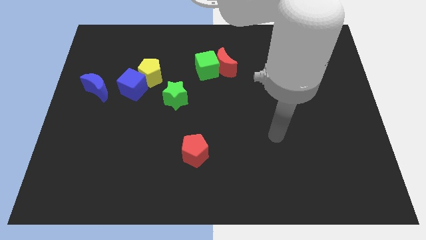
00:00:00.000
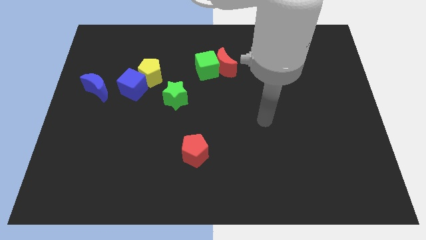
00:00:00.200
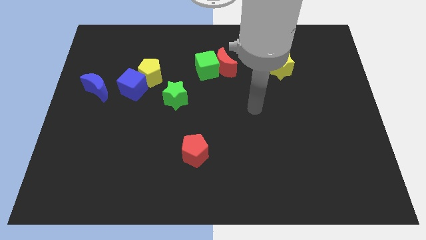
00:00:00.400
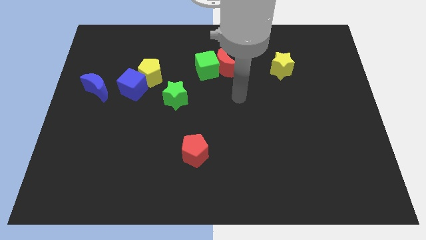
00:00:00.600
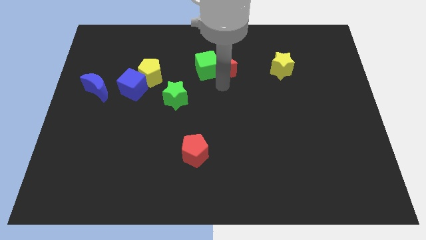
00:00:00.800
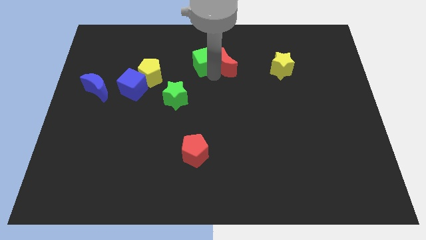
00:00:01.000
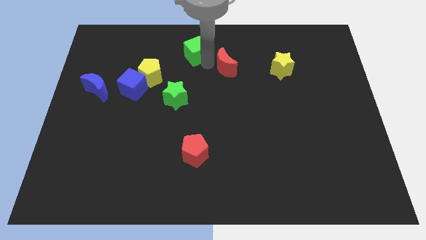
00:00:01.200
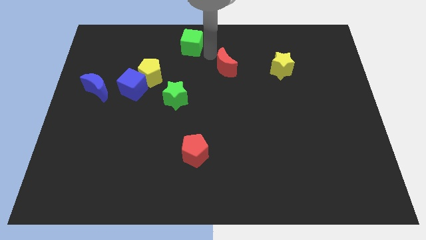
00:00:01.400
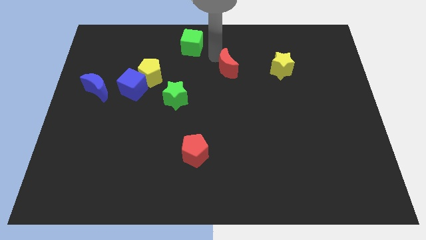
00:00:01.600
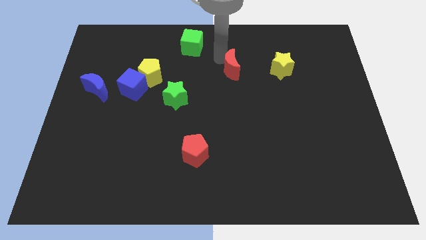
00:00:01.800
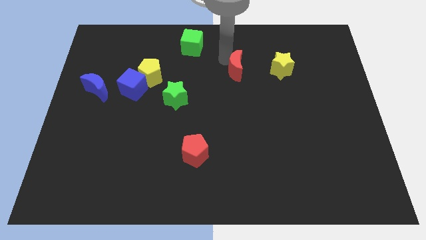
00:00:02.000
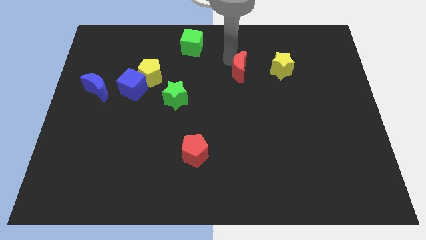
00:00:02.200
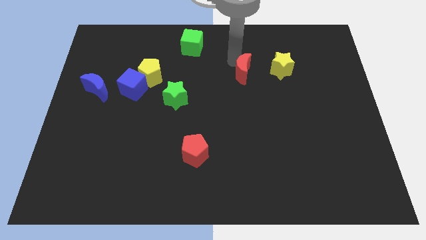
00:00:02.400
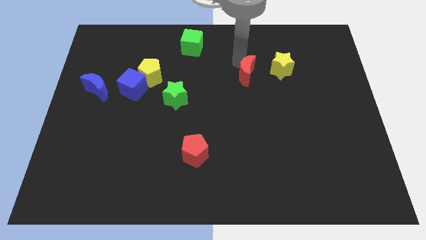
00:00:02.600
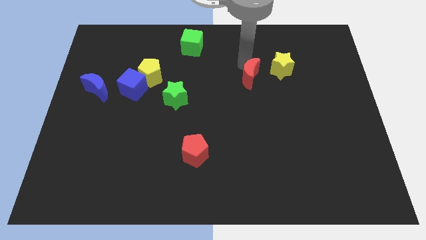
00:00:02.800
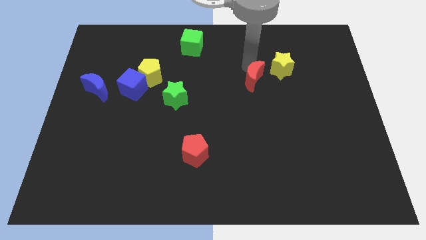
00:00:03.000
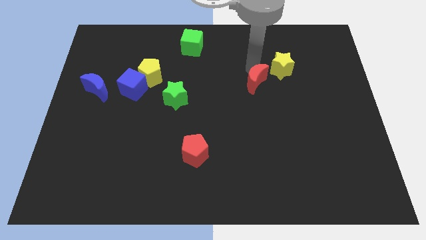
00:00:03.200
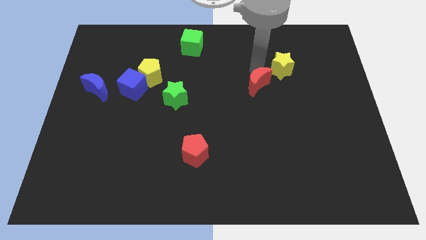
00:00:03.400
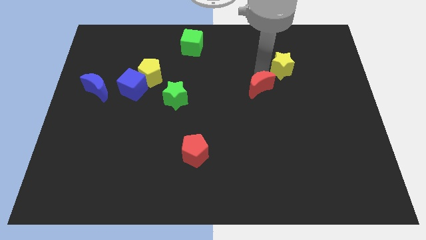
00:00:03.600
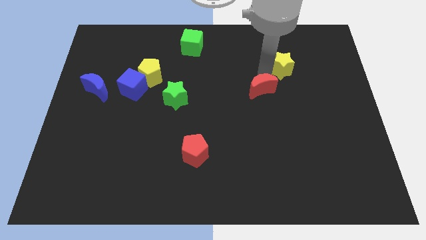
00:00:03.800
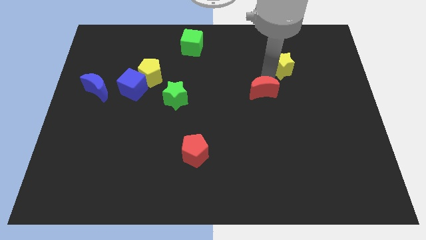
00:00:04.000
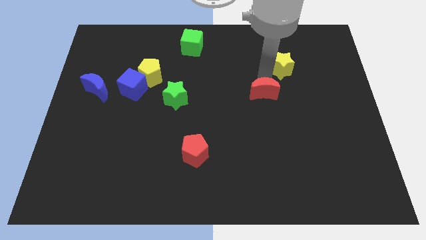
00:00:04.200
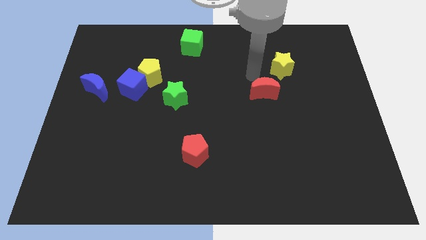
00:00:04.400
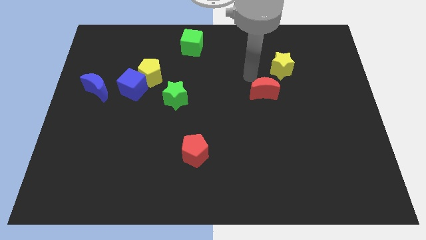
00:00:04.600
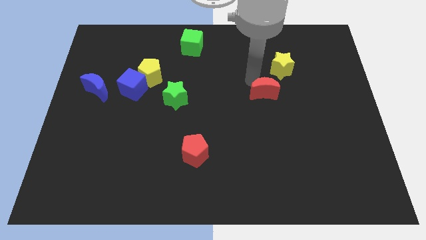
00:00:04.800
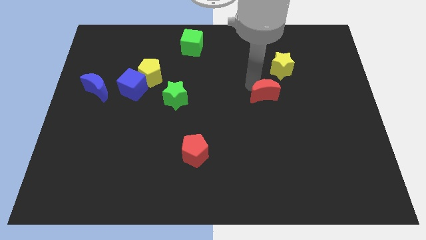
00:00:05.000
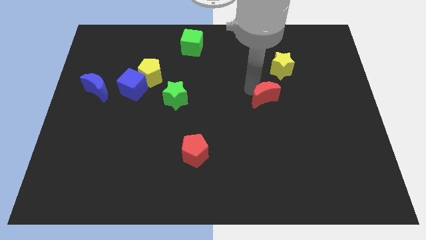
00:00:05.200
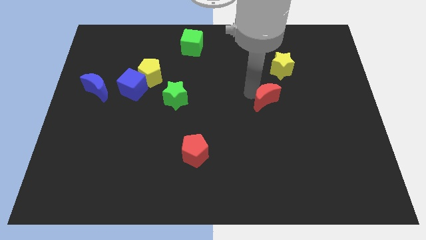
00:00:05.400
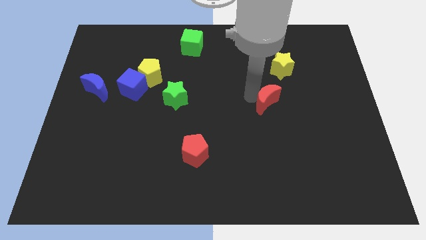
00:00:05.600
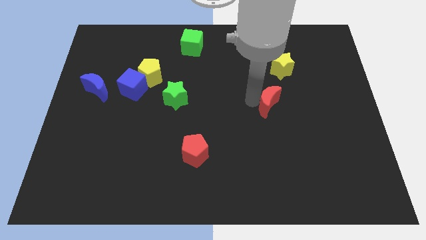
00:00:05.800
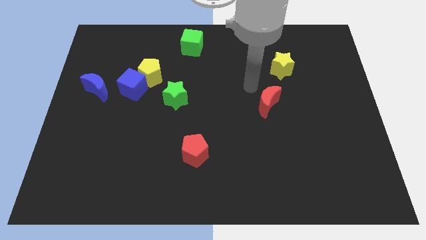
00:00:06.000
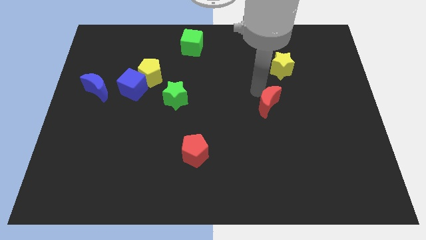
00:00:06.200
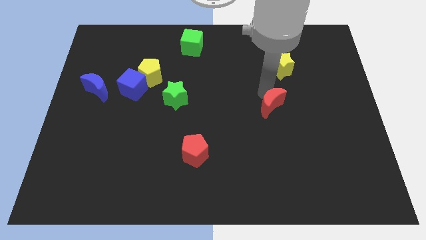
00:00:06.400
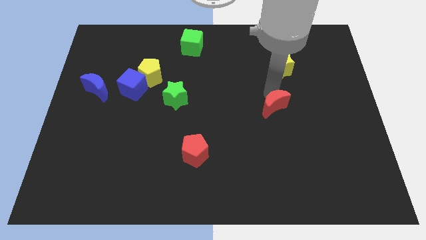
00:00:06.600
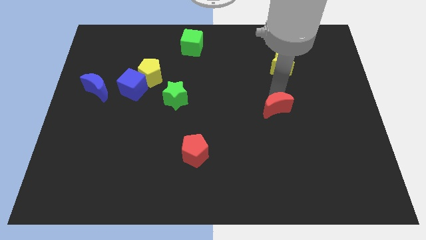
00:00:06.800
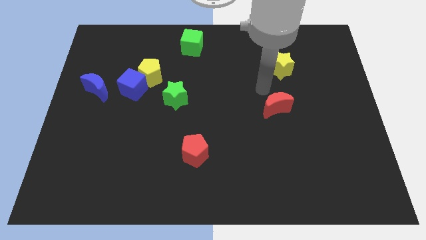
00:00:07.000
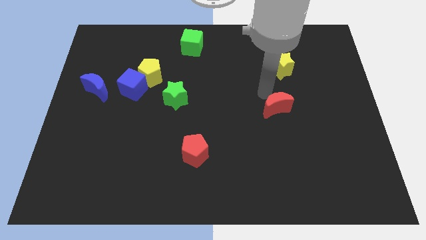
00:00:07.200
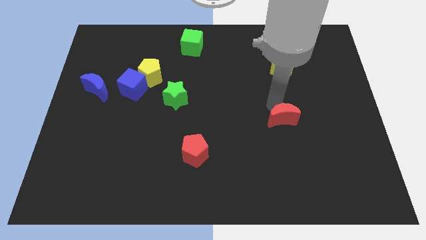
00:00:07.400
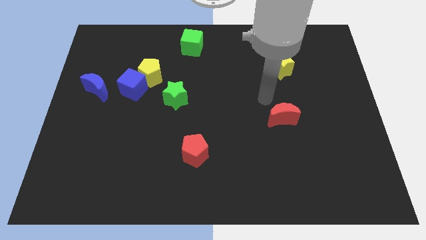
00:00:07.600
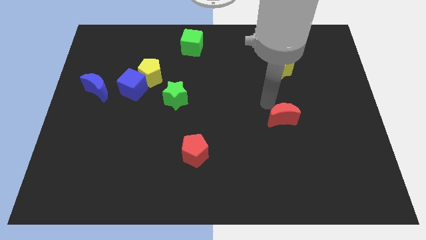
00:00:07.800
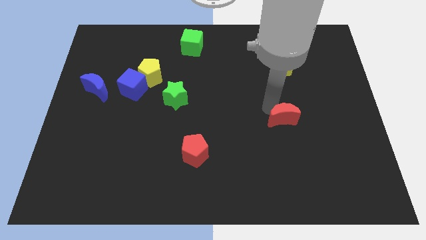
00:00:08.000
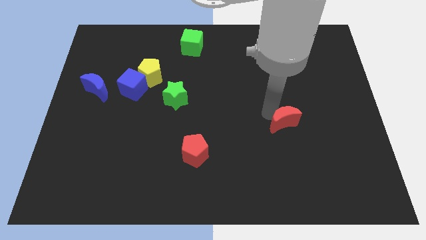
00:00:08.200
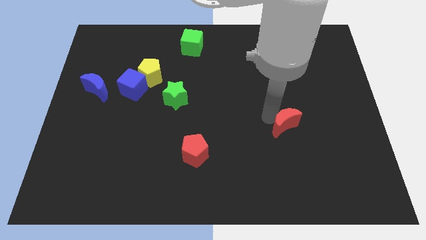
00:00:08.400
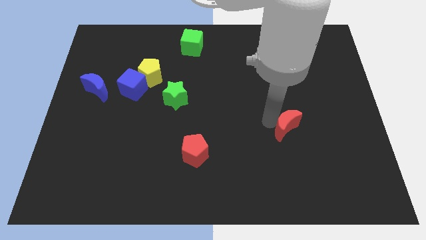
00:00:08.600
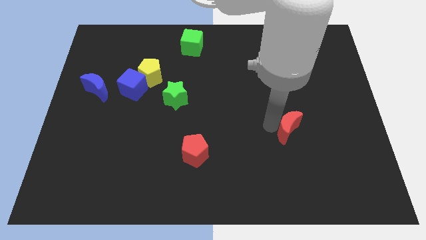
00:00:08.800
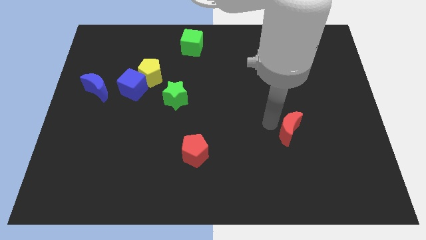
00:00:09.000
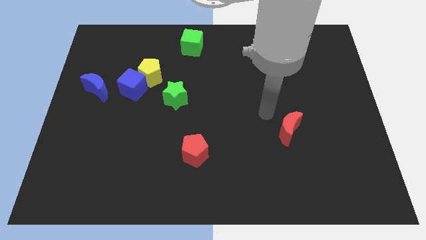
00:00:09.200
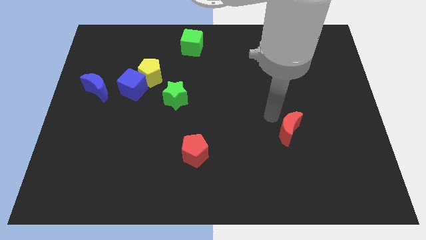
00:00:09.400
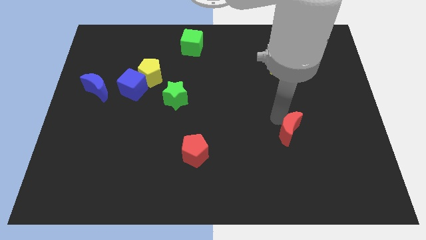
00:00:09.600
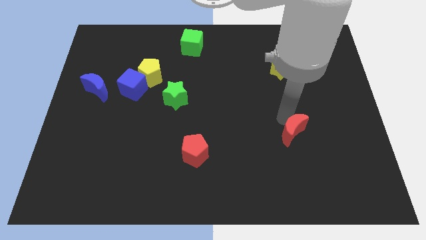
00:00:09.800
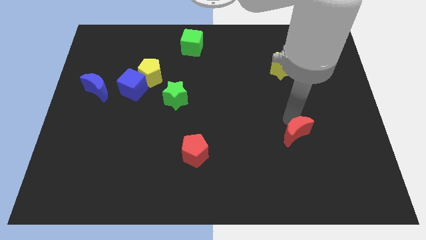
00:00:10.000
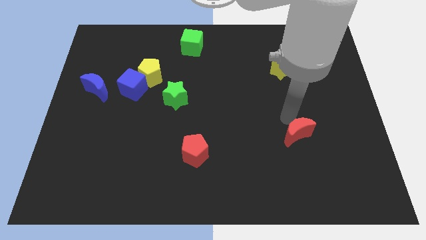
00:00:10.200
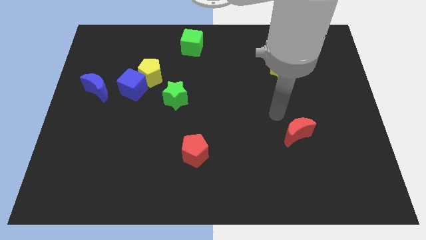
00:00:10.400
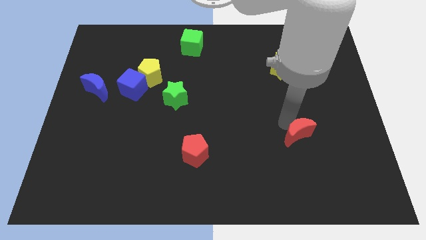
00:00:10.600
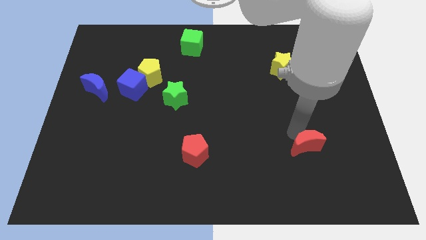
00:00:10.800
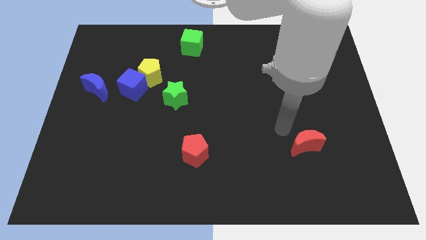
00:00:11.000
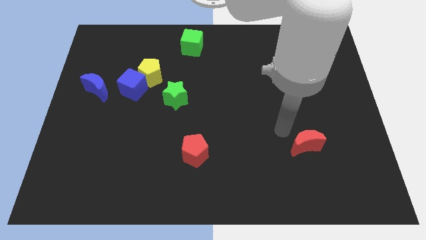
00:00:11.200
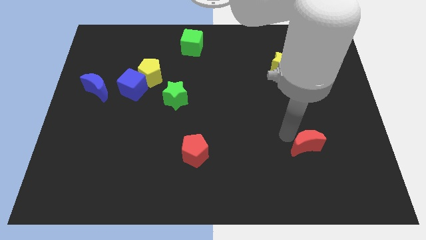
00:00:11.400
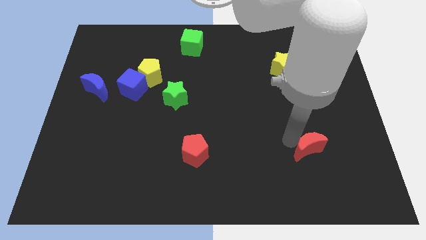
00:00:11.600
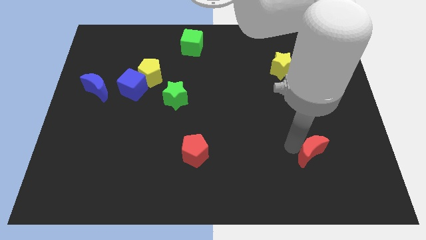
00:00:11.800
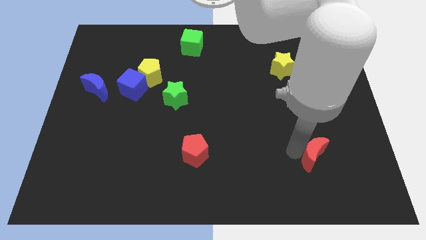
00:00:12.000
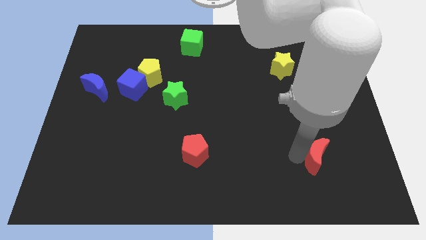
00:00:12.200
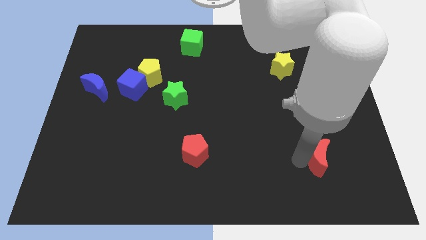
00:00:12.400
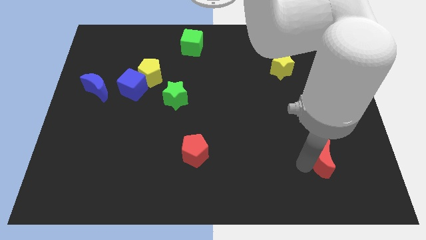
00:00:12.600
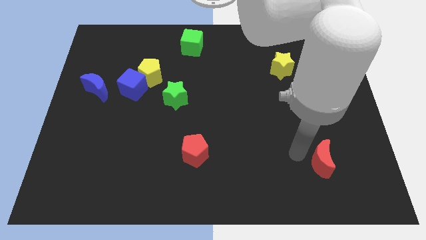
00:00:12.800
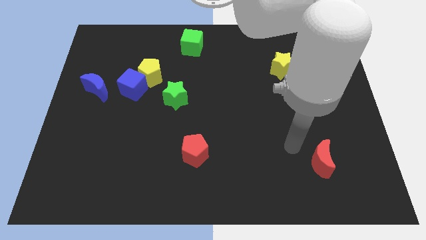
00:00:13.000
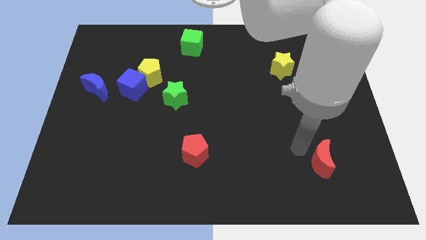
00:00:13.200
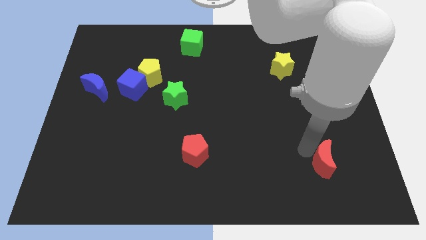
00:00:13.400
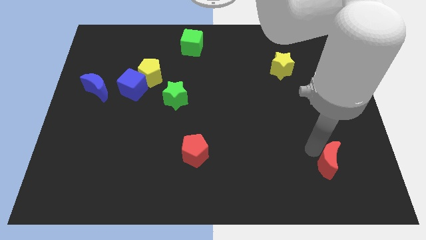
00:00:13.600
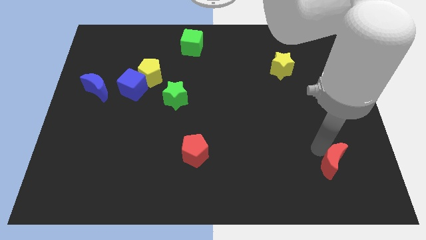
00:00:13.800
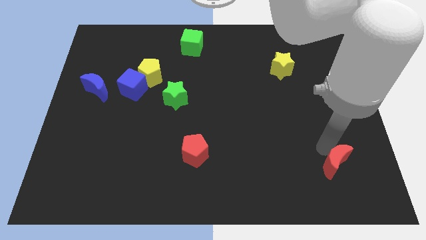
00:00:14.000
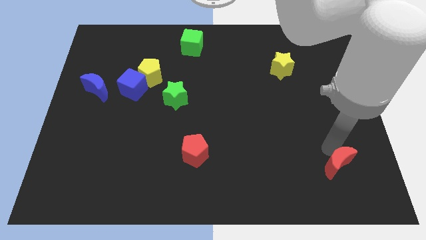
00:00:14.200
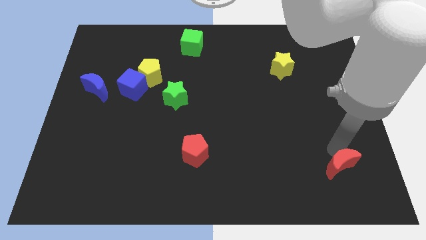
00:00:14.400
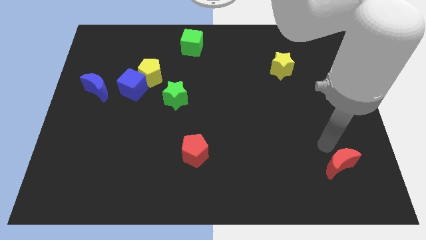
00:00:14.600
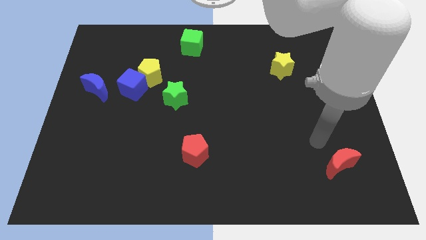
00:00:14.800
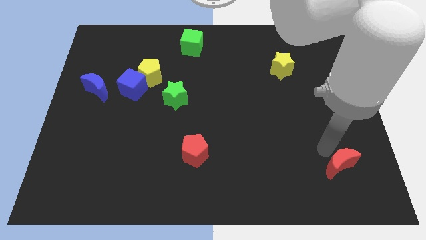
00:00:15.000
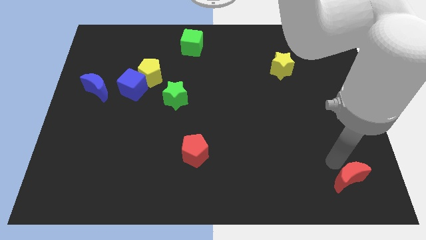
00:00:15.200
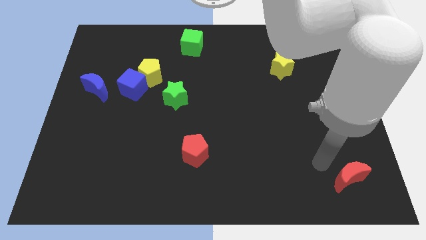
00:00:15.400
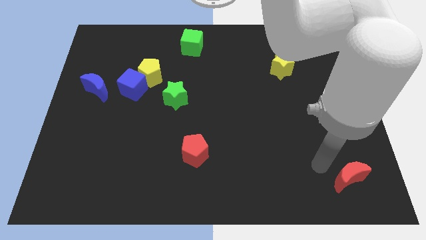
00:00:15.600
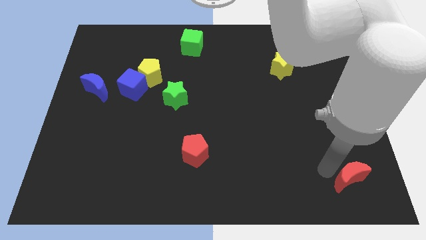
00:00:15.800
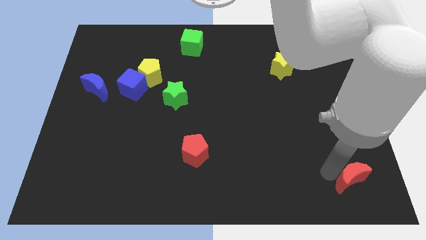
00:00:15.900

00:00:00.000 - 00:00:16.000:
slide the red moon to the lower right corner
